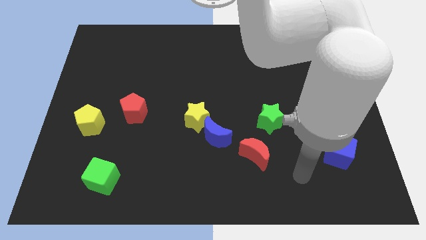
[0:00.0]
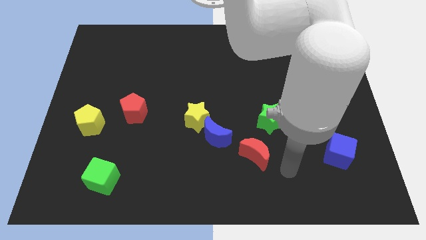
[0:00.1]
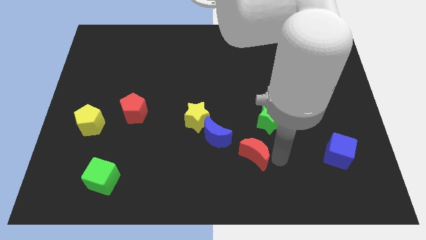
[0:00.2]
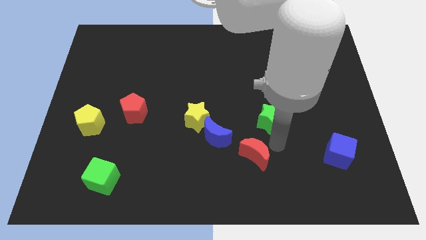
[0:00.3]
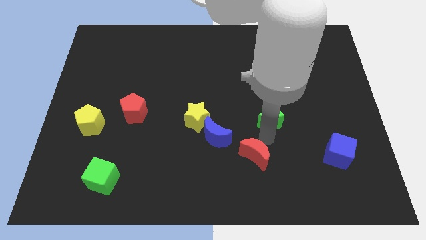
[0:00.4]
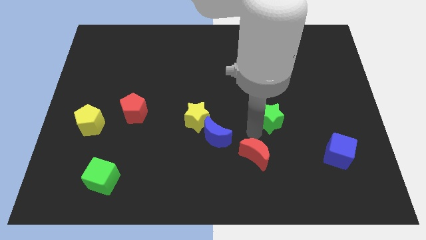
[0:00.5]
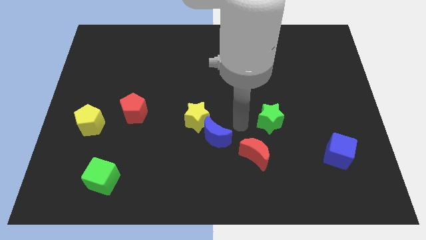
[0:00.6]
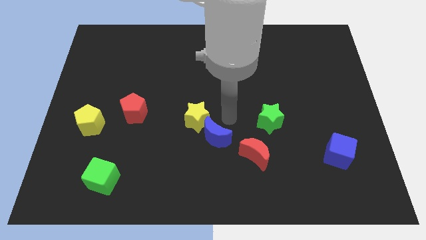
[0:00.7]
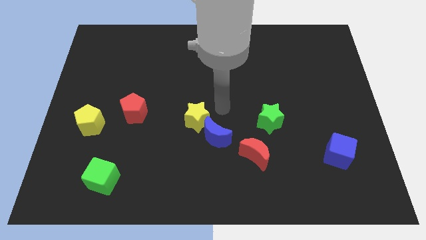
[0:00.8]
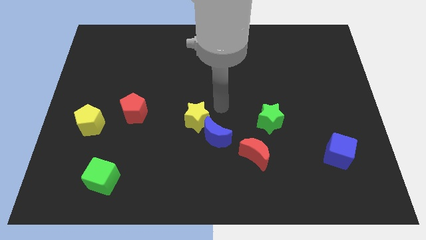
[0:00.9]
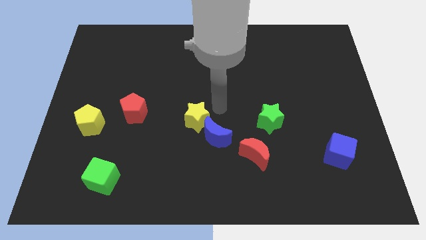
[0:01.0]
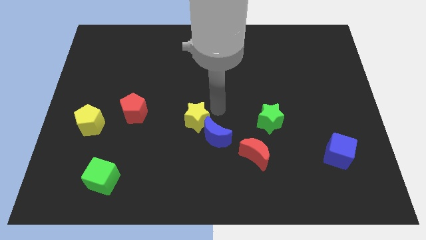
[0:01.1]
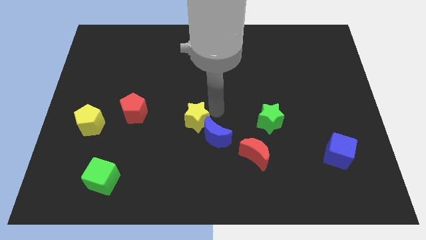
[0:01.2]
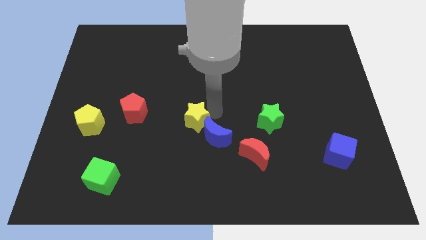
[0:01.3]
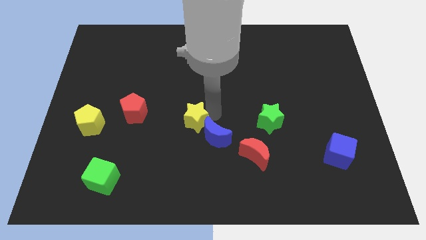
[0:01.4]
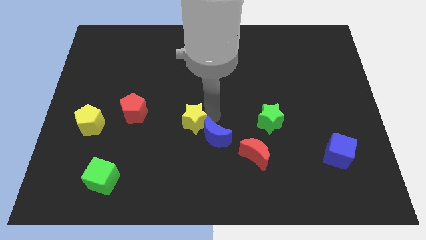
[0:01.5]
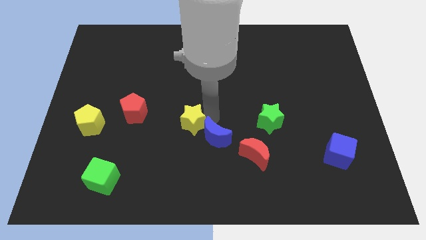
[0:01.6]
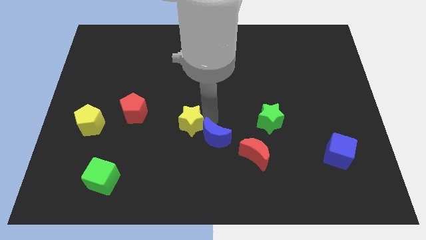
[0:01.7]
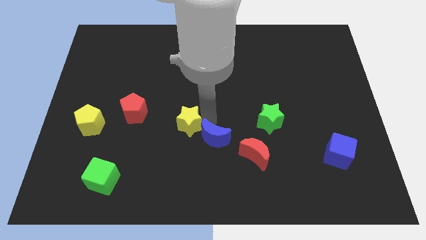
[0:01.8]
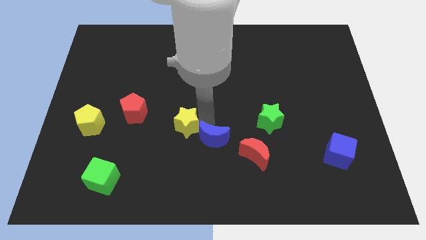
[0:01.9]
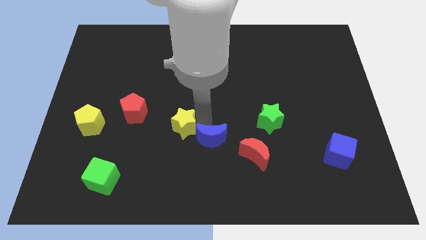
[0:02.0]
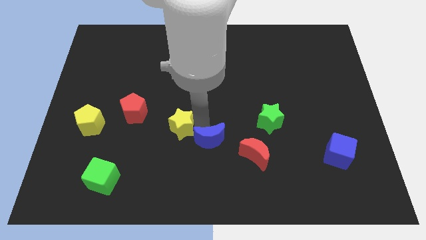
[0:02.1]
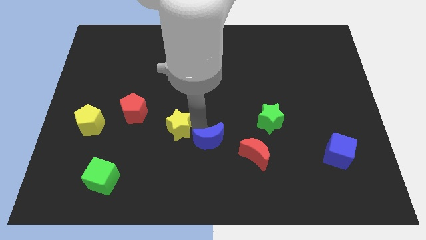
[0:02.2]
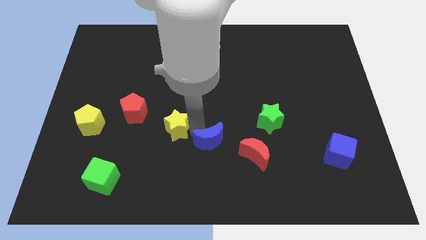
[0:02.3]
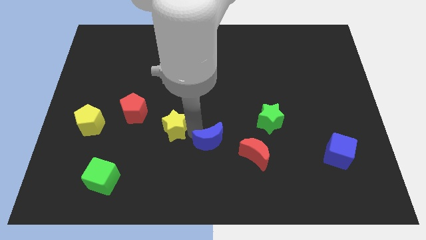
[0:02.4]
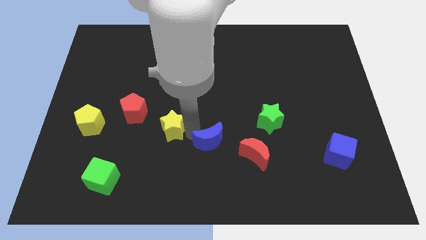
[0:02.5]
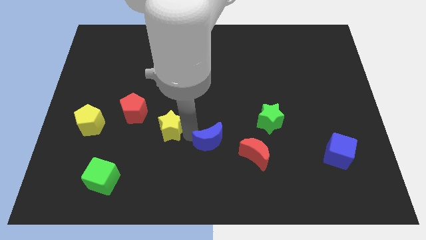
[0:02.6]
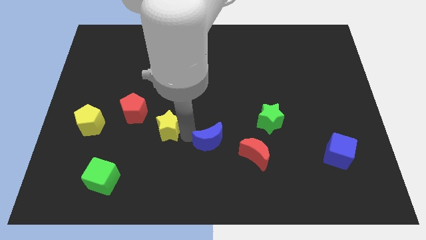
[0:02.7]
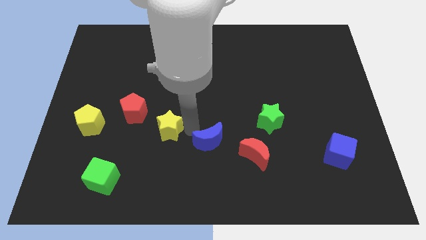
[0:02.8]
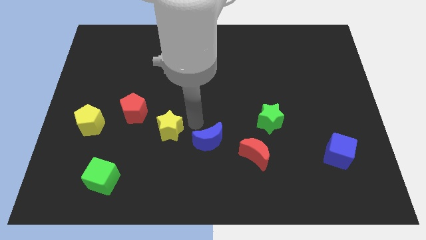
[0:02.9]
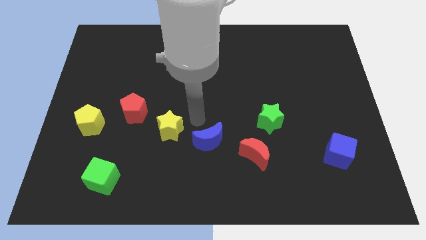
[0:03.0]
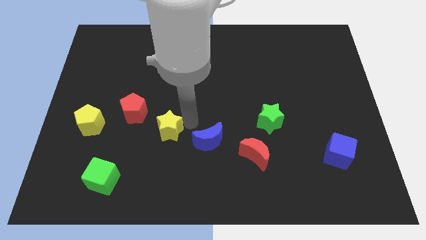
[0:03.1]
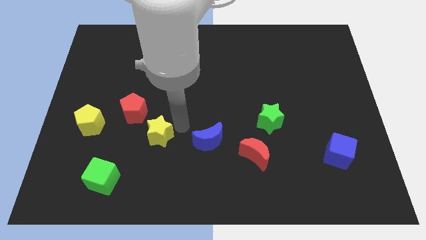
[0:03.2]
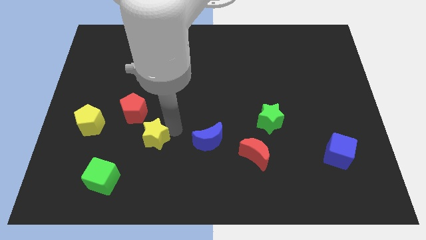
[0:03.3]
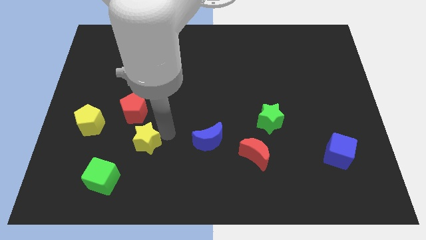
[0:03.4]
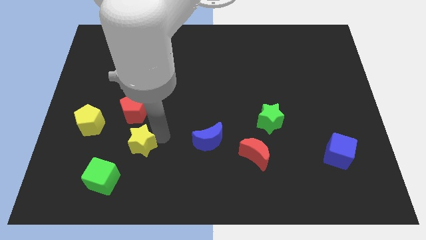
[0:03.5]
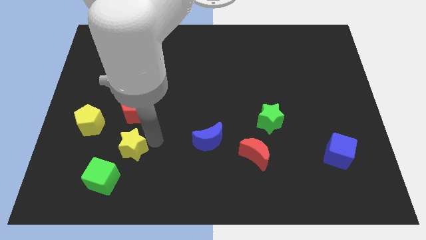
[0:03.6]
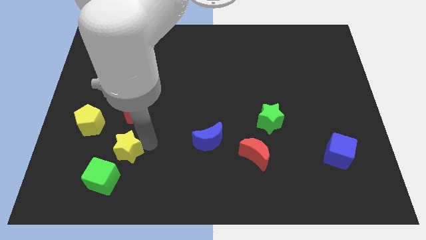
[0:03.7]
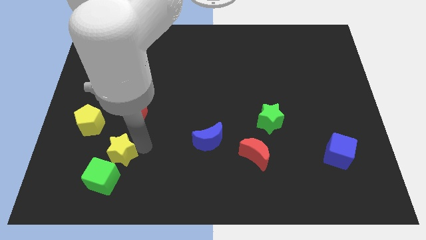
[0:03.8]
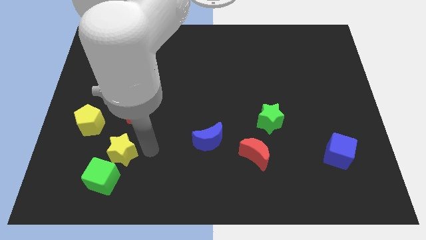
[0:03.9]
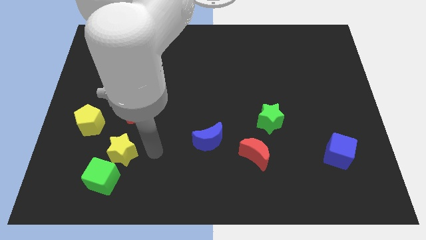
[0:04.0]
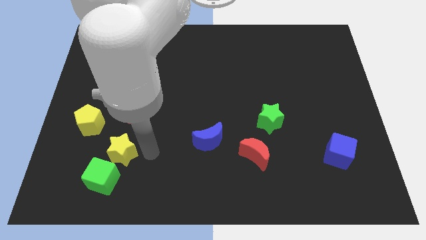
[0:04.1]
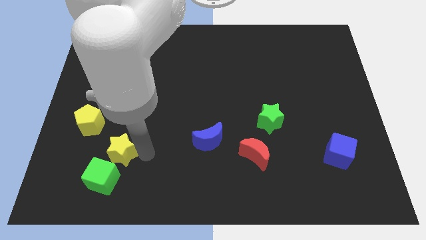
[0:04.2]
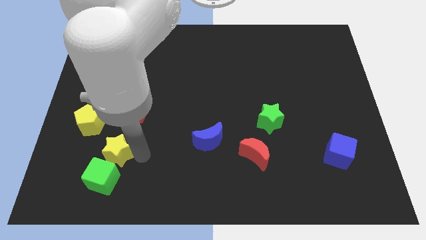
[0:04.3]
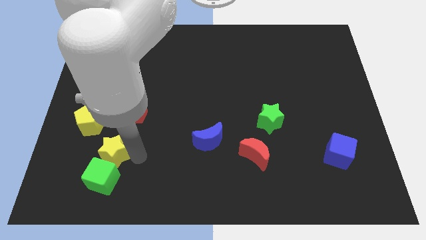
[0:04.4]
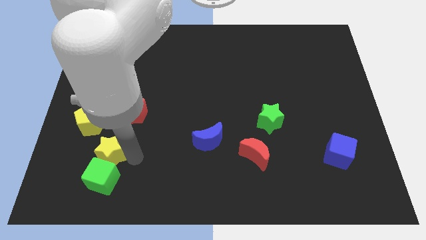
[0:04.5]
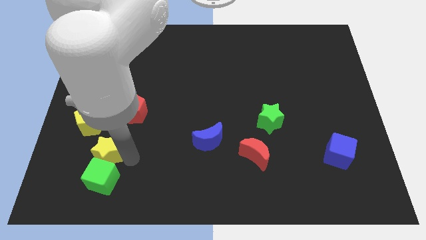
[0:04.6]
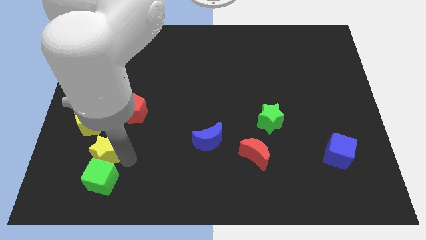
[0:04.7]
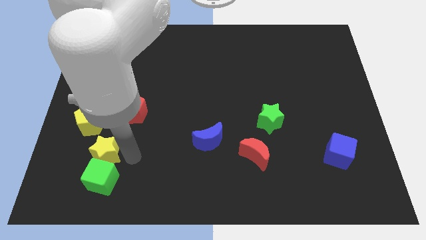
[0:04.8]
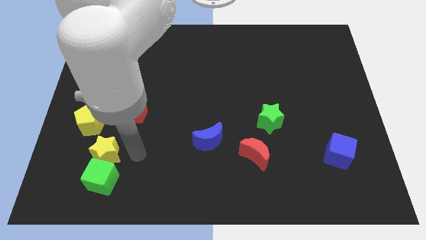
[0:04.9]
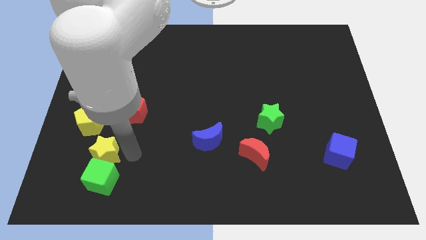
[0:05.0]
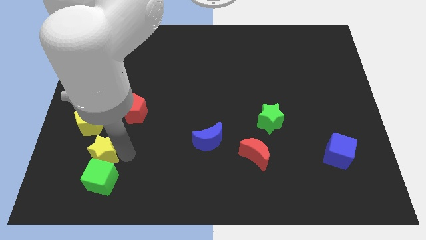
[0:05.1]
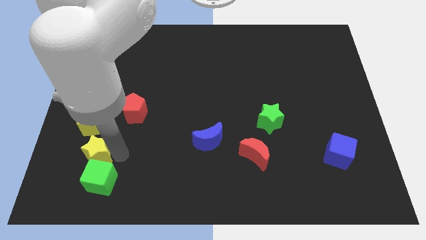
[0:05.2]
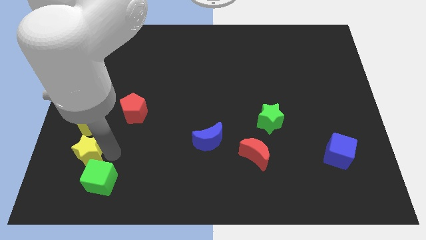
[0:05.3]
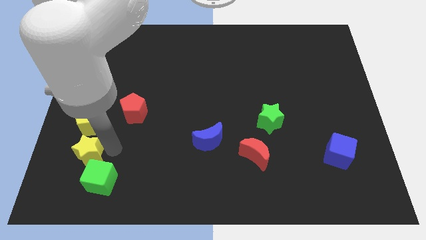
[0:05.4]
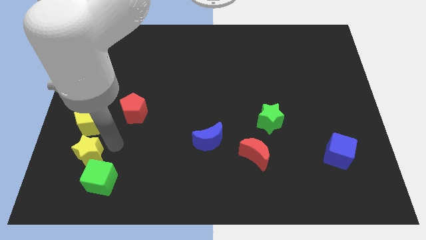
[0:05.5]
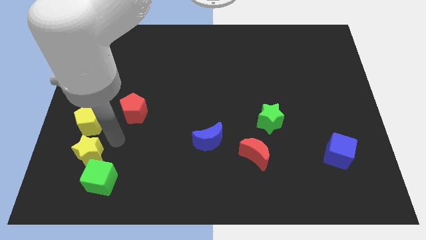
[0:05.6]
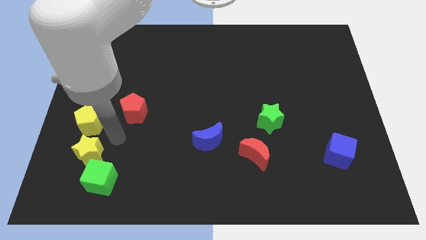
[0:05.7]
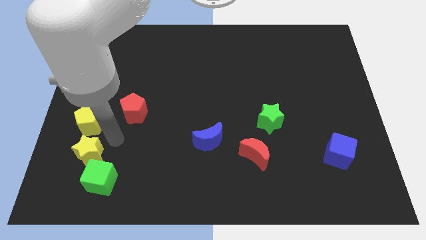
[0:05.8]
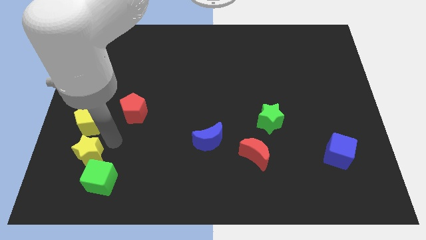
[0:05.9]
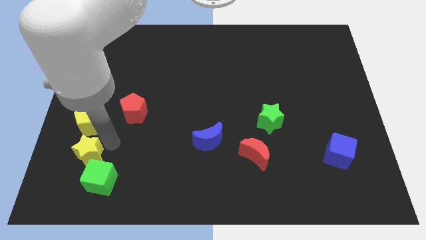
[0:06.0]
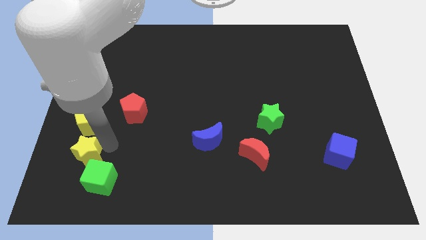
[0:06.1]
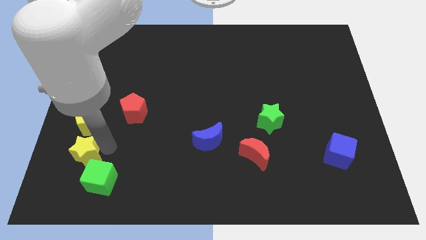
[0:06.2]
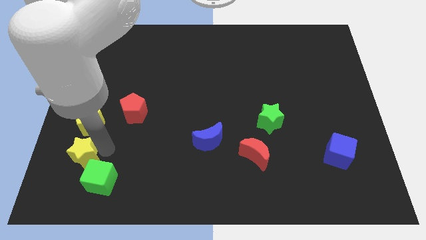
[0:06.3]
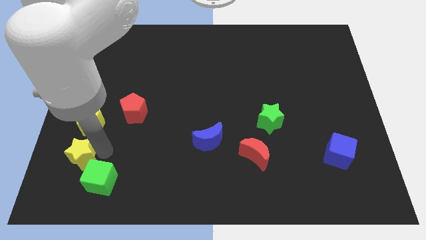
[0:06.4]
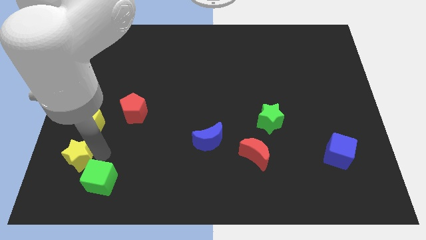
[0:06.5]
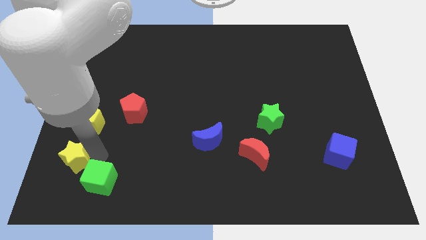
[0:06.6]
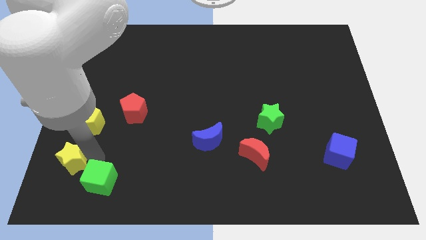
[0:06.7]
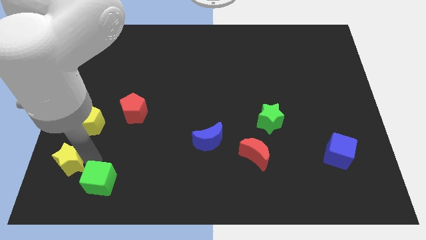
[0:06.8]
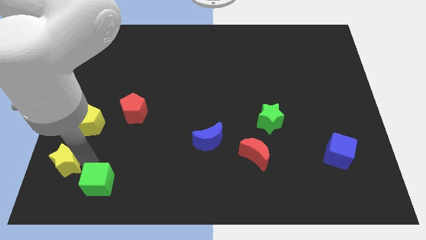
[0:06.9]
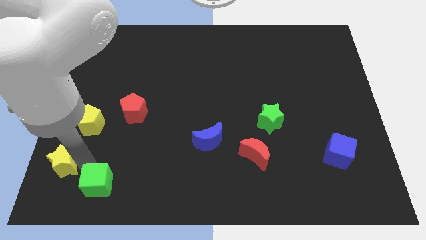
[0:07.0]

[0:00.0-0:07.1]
put the yellow star to the bottom left

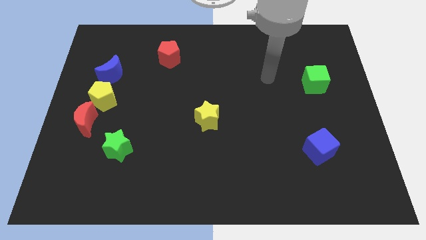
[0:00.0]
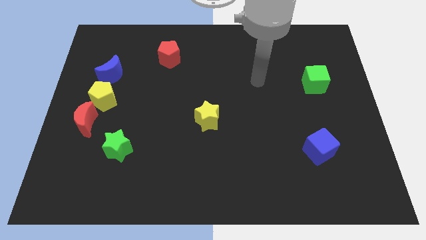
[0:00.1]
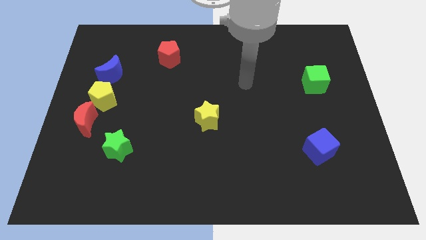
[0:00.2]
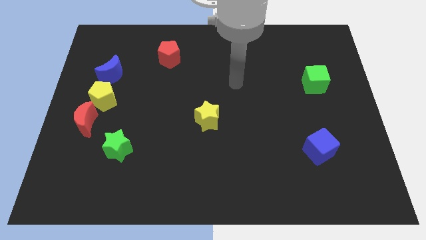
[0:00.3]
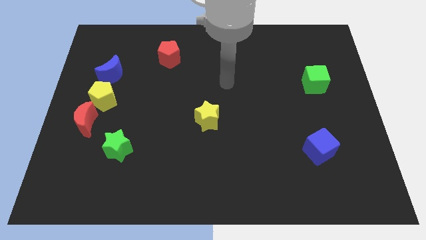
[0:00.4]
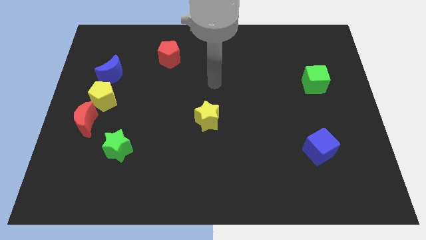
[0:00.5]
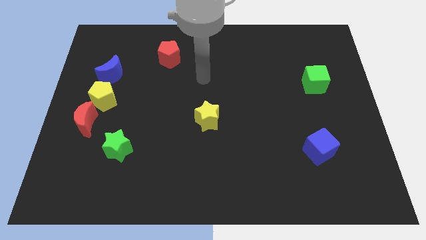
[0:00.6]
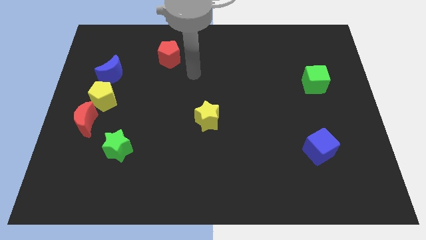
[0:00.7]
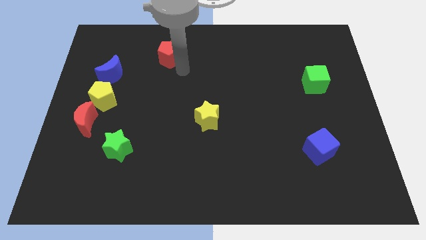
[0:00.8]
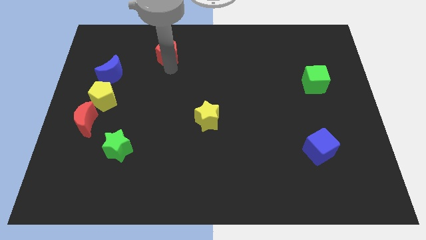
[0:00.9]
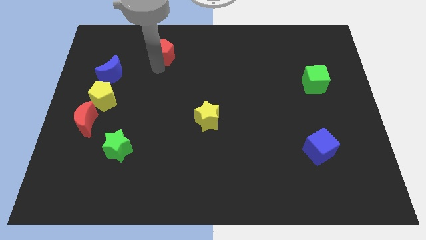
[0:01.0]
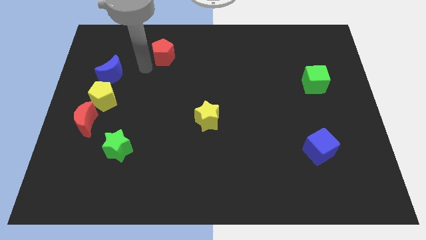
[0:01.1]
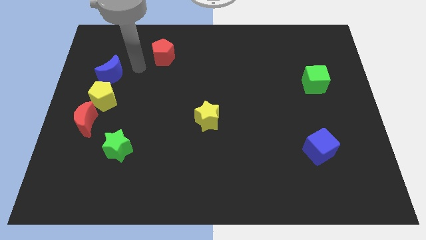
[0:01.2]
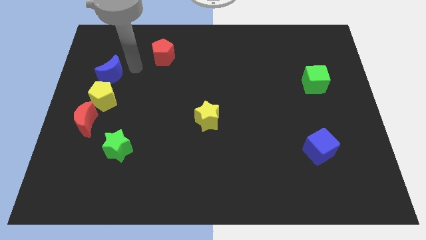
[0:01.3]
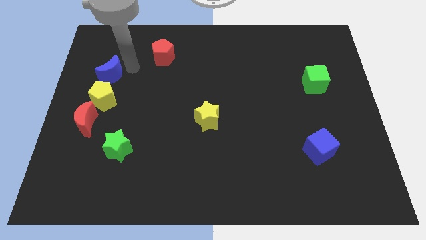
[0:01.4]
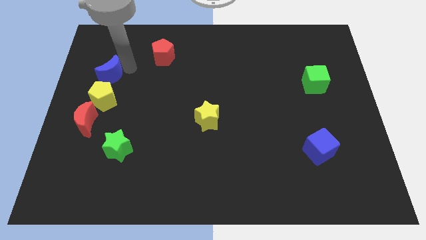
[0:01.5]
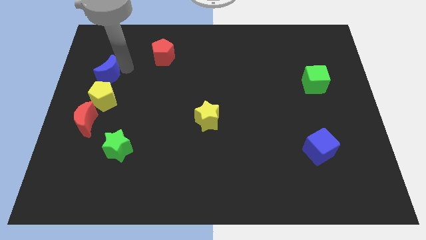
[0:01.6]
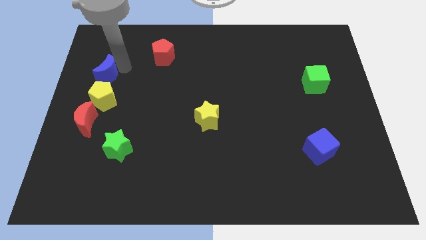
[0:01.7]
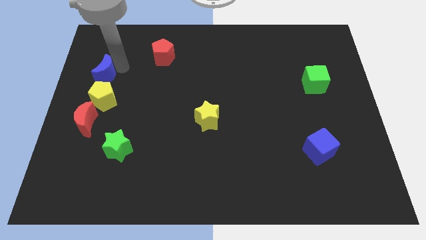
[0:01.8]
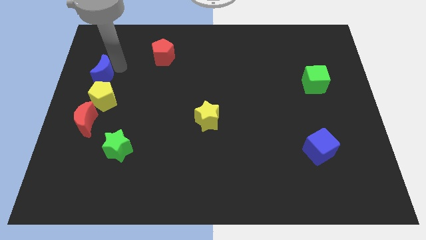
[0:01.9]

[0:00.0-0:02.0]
move the blue moon to the center left
